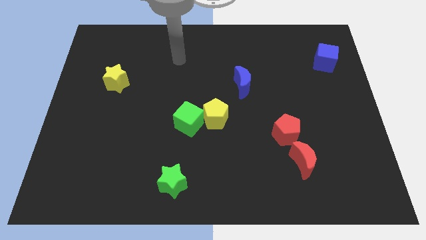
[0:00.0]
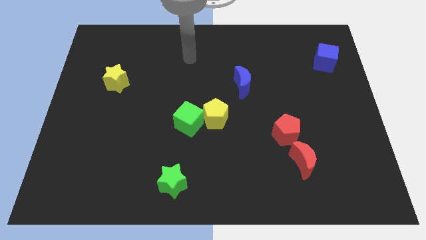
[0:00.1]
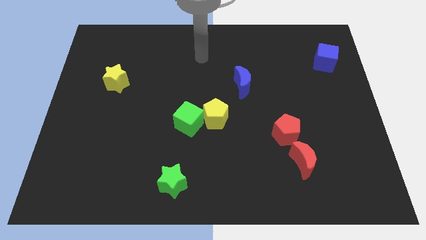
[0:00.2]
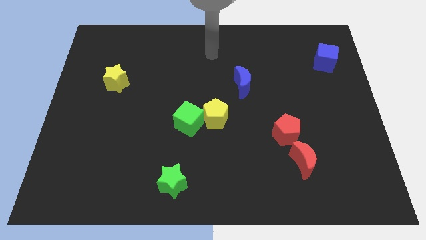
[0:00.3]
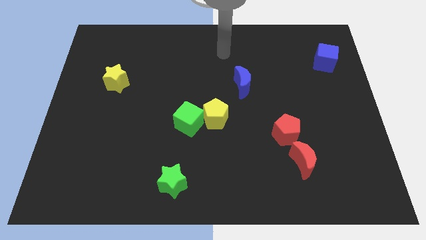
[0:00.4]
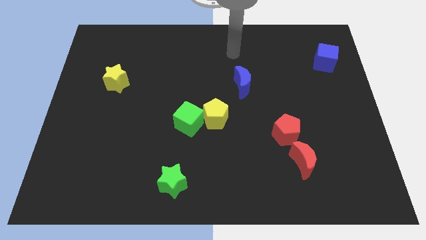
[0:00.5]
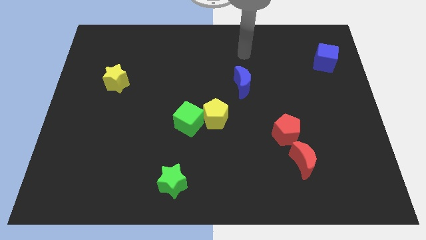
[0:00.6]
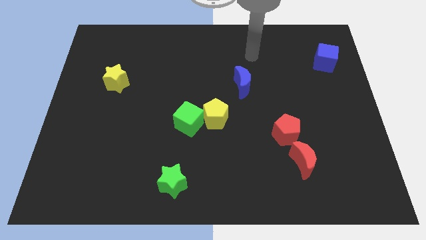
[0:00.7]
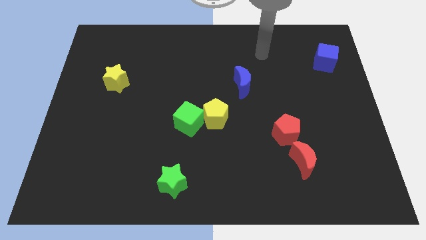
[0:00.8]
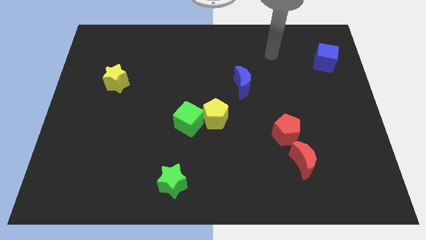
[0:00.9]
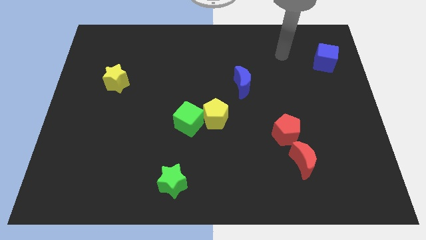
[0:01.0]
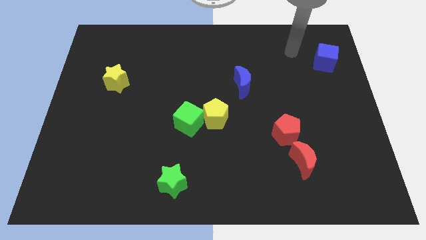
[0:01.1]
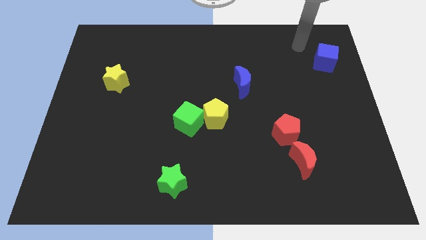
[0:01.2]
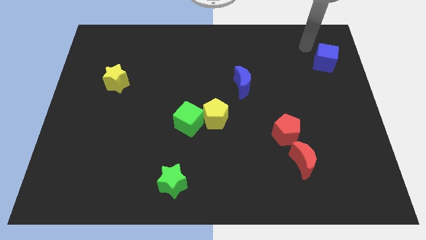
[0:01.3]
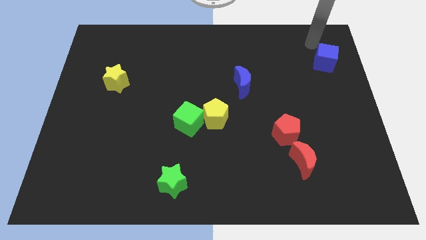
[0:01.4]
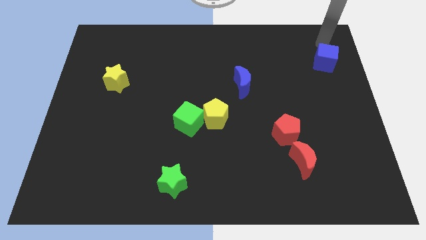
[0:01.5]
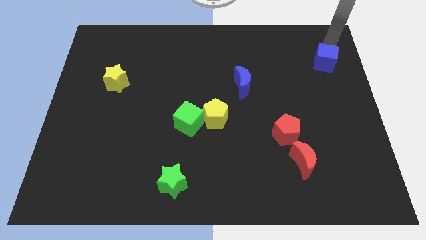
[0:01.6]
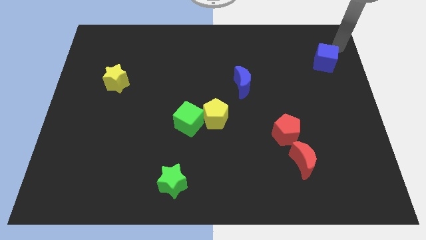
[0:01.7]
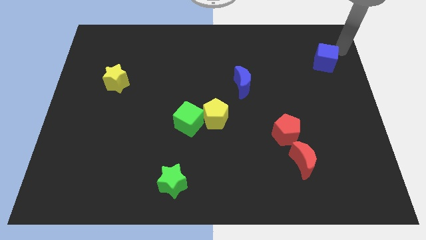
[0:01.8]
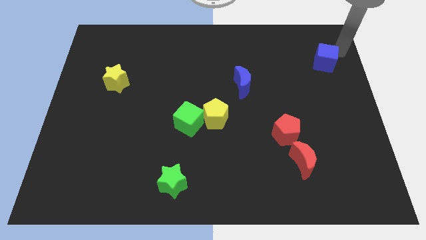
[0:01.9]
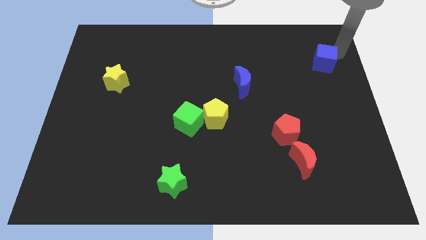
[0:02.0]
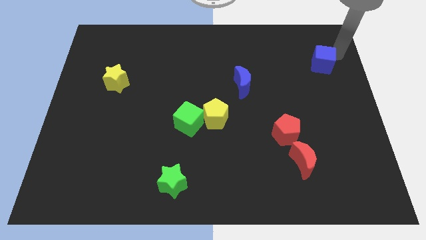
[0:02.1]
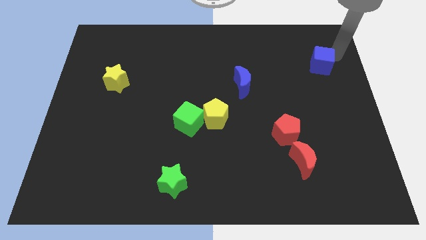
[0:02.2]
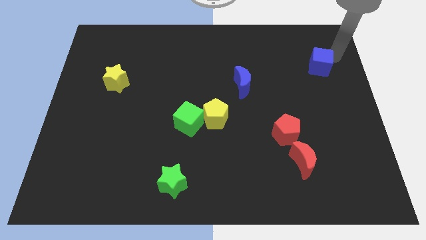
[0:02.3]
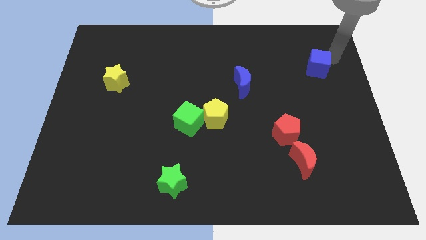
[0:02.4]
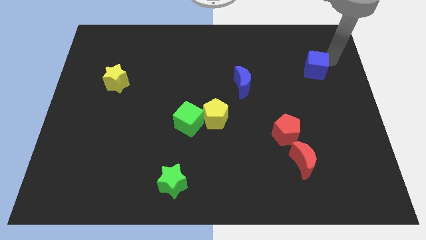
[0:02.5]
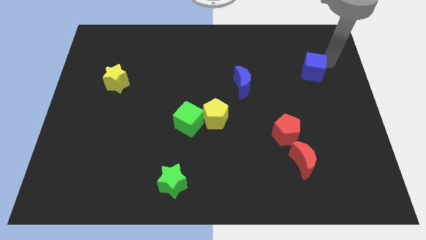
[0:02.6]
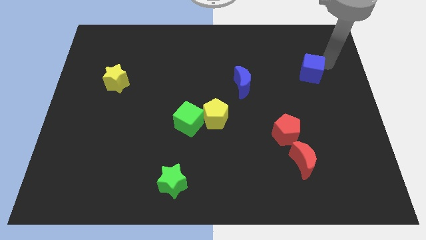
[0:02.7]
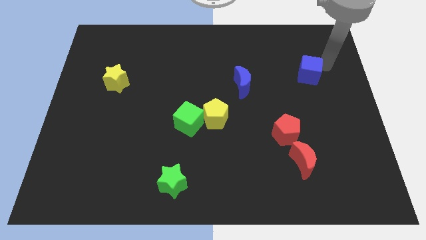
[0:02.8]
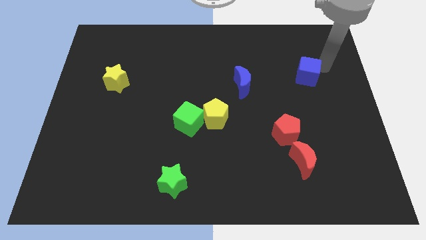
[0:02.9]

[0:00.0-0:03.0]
push the blue cube somewhat downwards and left diagonally

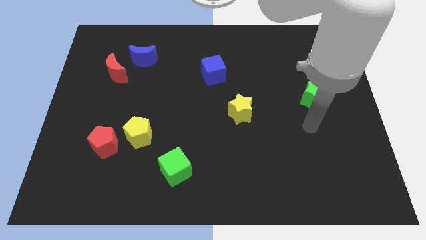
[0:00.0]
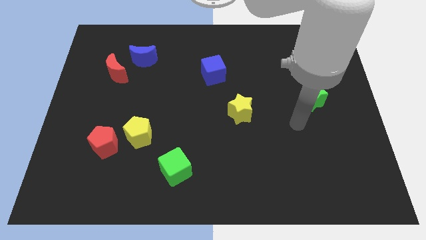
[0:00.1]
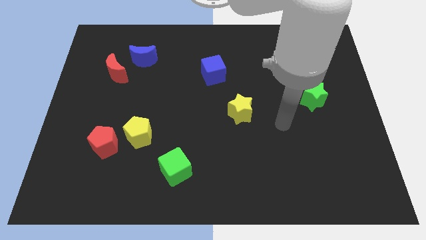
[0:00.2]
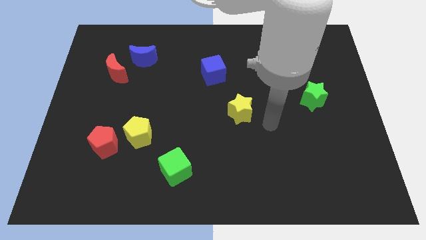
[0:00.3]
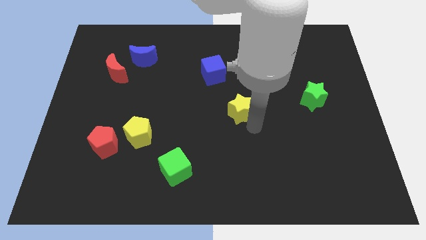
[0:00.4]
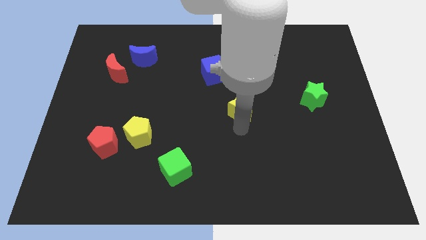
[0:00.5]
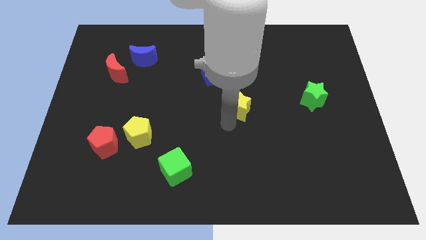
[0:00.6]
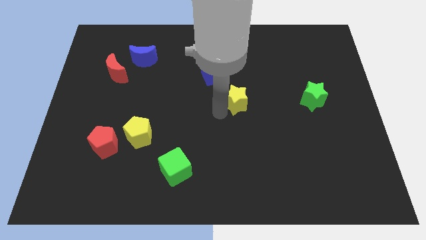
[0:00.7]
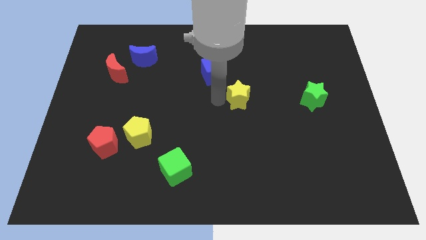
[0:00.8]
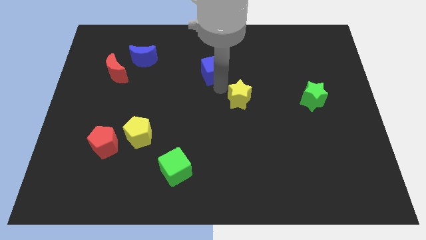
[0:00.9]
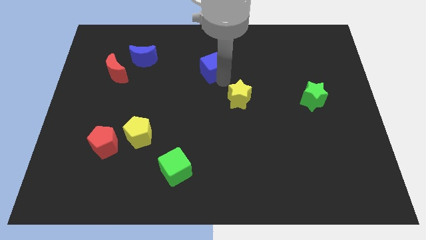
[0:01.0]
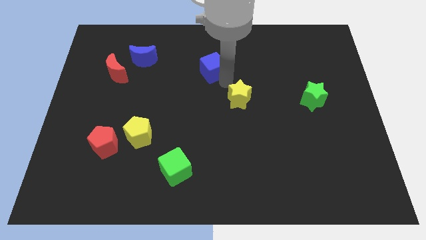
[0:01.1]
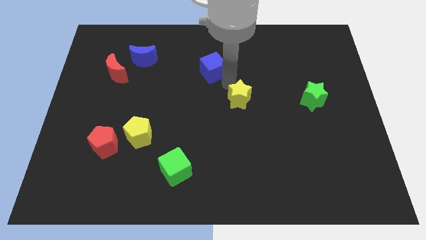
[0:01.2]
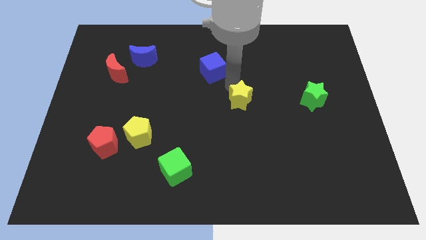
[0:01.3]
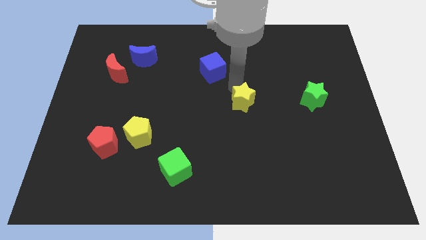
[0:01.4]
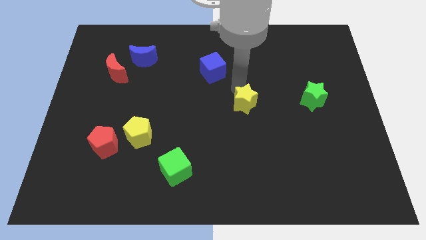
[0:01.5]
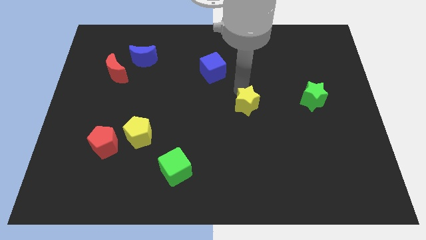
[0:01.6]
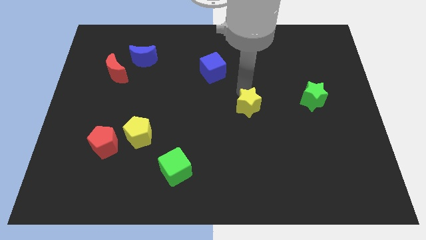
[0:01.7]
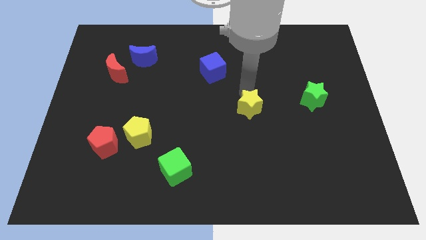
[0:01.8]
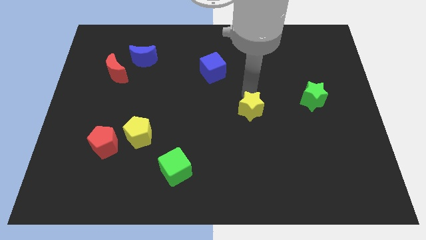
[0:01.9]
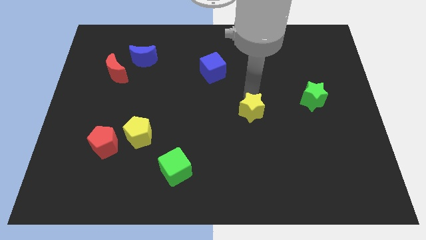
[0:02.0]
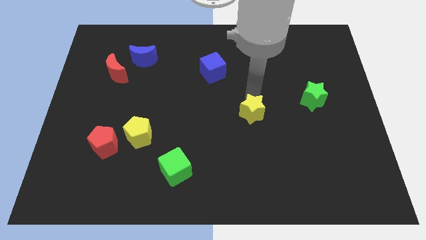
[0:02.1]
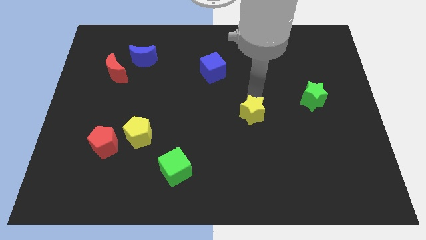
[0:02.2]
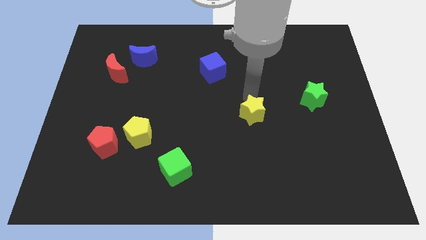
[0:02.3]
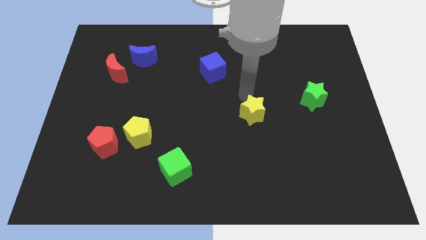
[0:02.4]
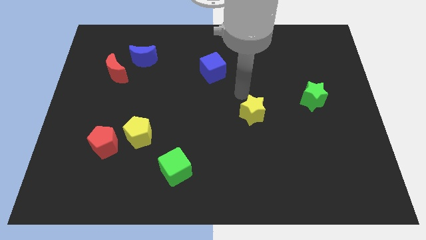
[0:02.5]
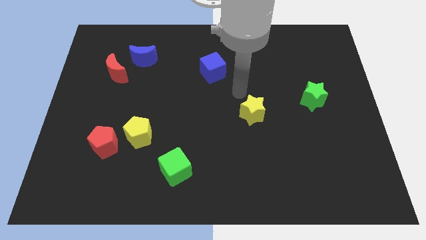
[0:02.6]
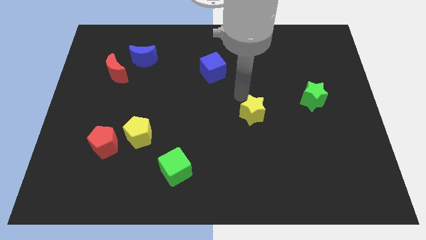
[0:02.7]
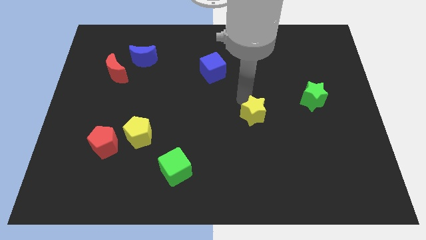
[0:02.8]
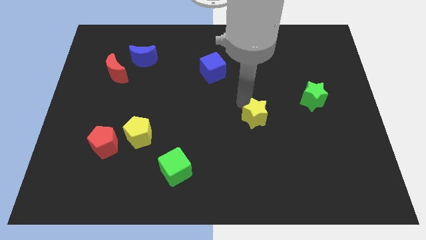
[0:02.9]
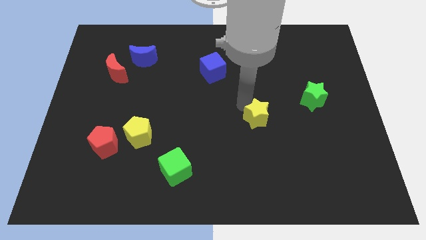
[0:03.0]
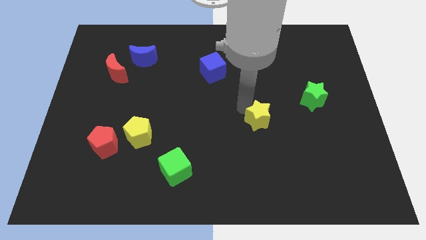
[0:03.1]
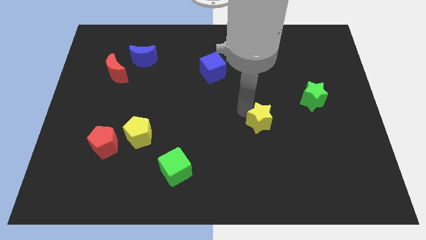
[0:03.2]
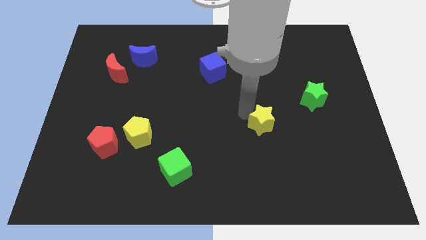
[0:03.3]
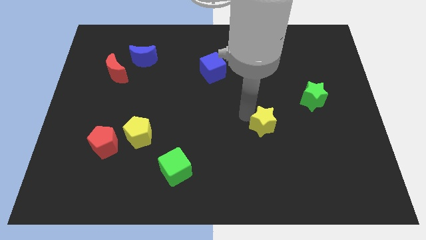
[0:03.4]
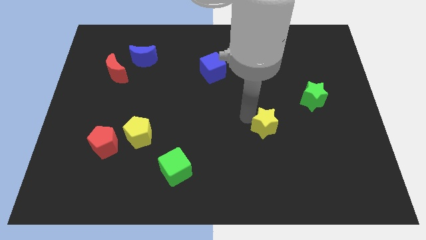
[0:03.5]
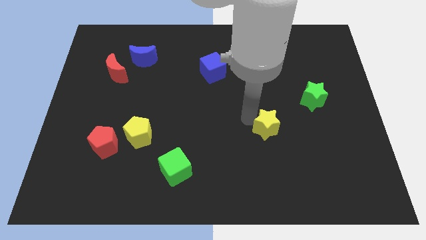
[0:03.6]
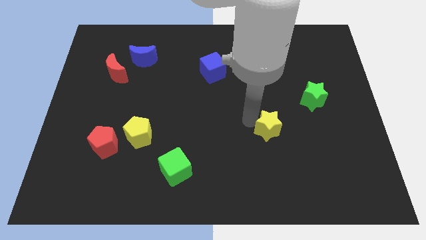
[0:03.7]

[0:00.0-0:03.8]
push the yellow star downwards and to the right diagonally somewhat

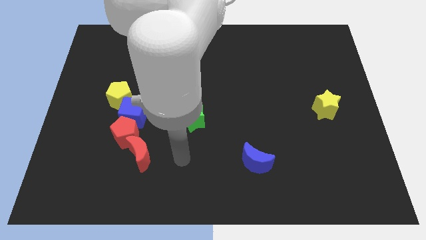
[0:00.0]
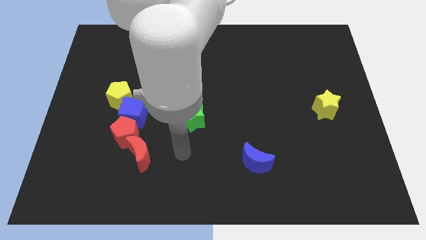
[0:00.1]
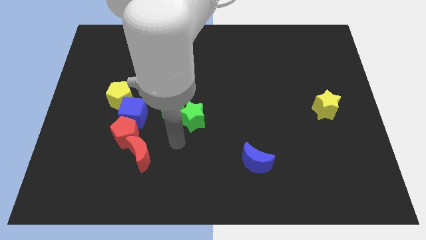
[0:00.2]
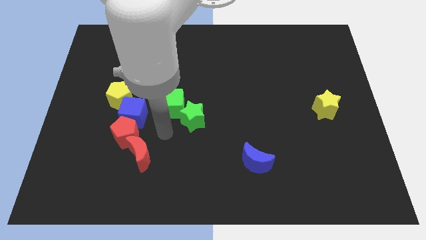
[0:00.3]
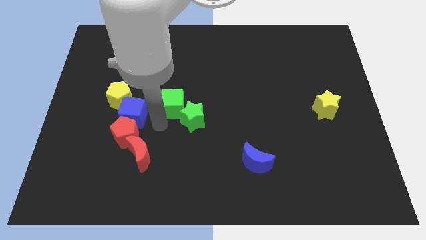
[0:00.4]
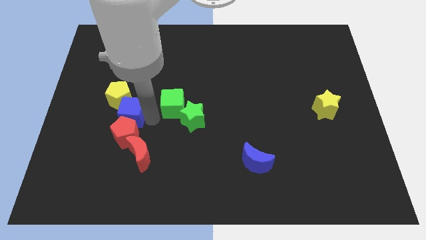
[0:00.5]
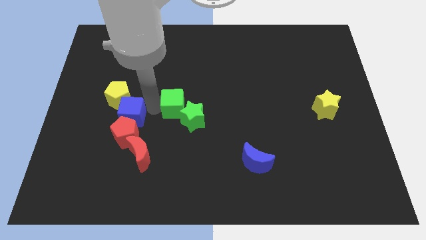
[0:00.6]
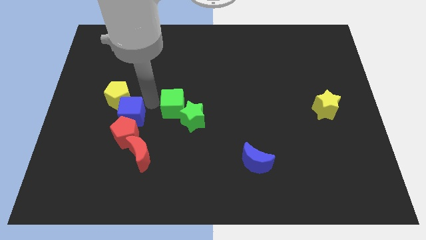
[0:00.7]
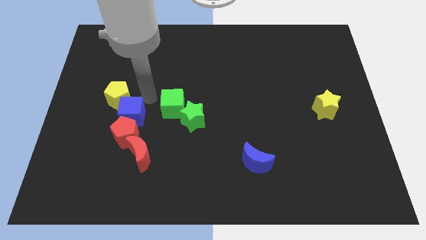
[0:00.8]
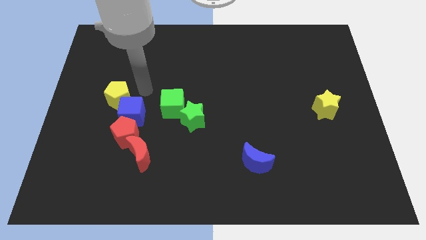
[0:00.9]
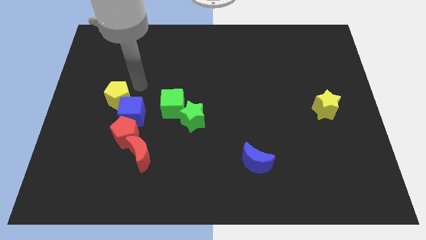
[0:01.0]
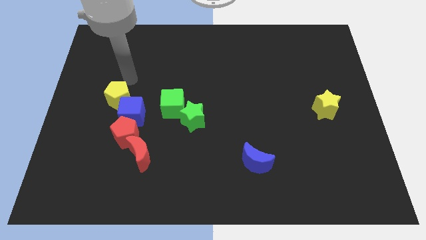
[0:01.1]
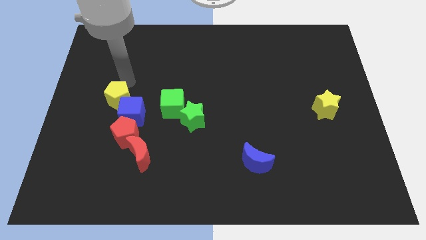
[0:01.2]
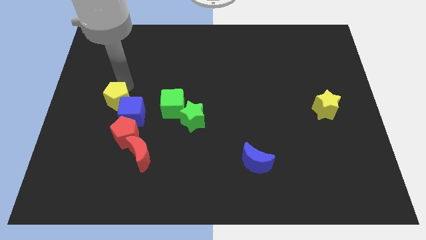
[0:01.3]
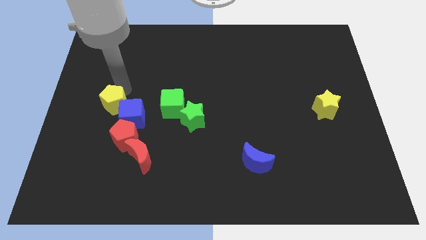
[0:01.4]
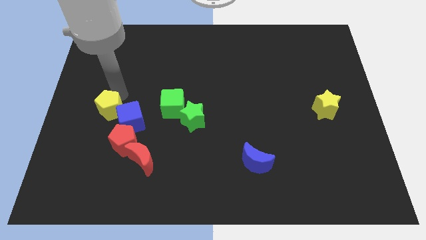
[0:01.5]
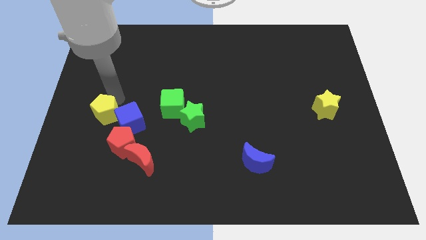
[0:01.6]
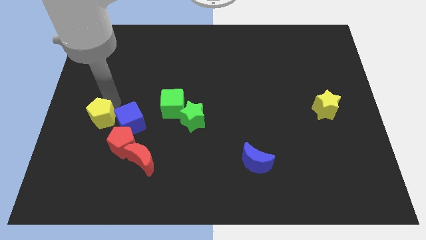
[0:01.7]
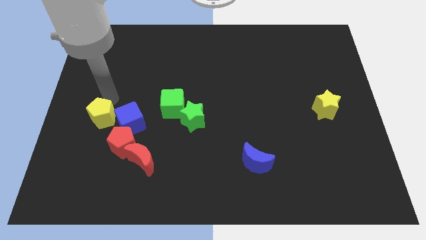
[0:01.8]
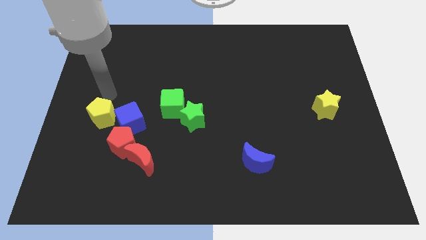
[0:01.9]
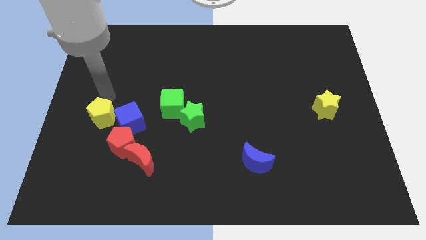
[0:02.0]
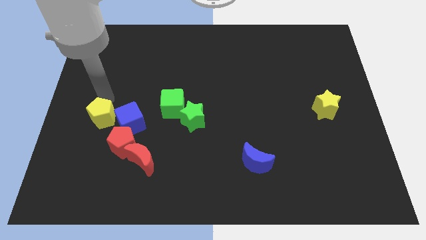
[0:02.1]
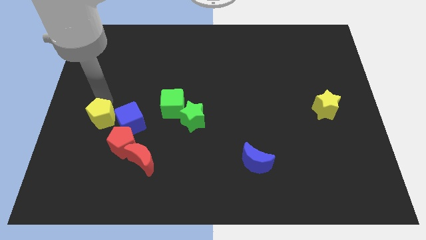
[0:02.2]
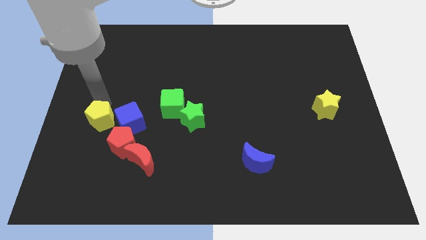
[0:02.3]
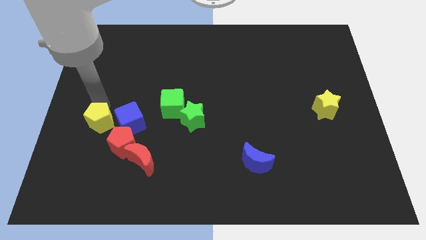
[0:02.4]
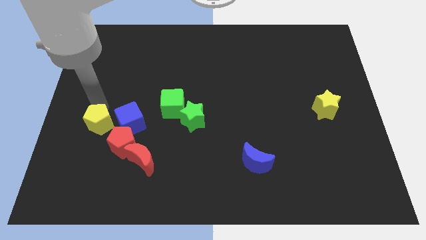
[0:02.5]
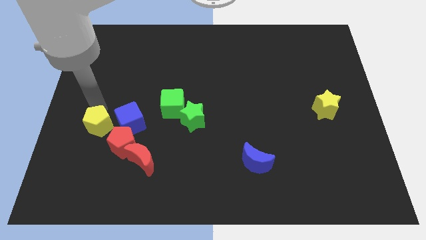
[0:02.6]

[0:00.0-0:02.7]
push the yellow pentagon down a bit
